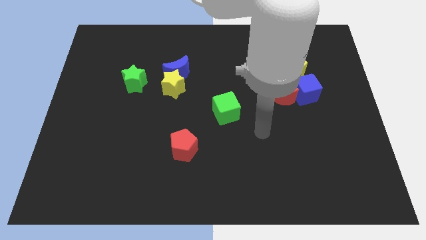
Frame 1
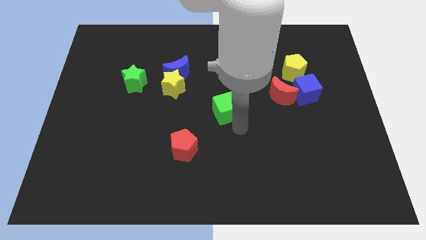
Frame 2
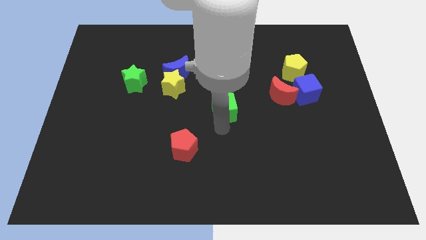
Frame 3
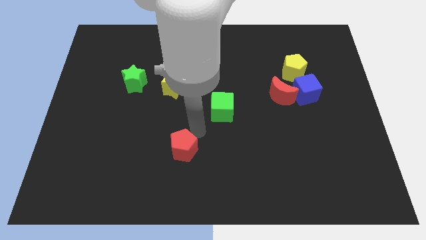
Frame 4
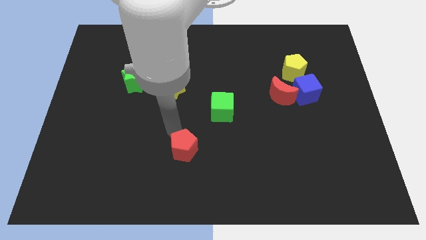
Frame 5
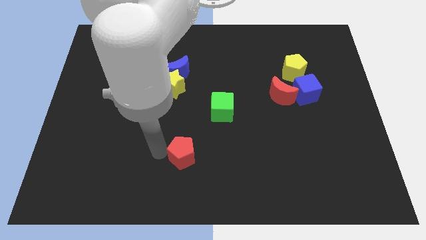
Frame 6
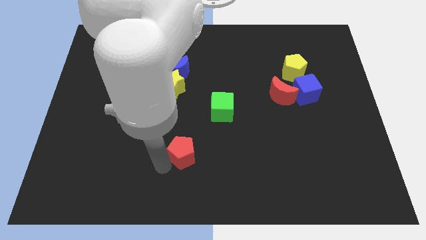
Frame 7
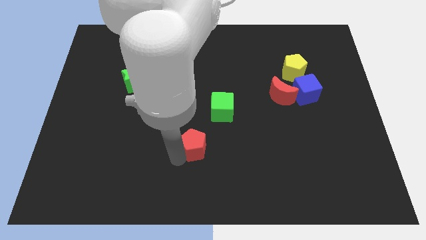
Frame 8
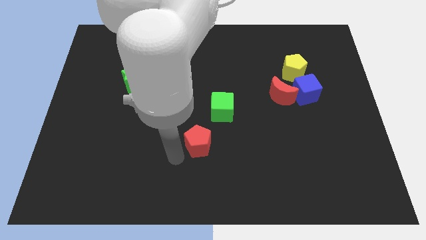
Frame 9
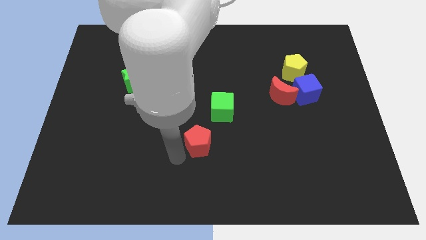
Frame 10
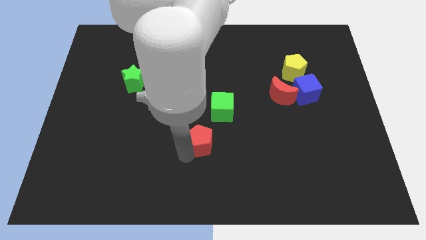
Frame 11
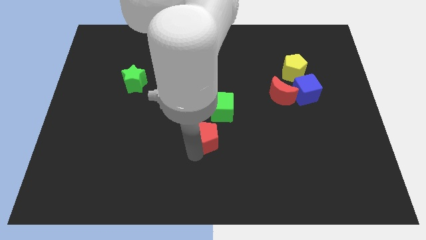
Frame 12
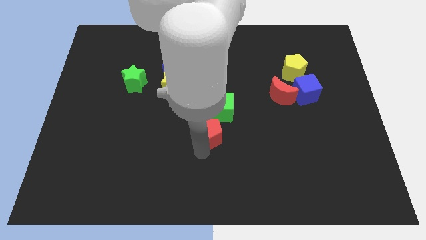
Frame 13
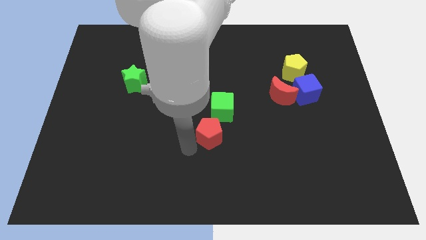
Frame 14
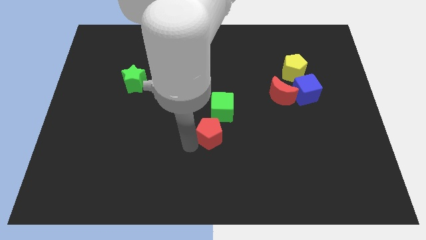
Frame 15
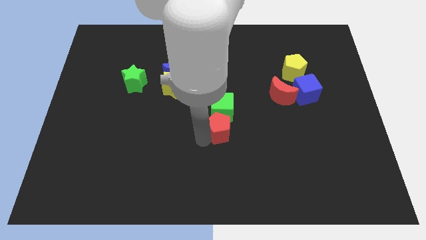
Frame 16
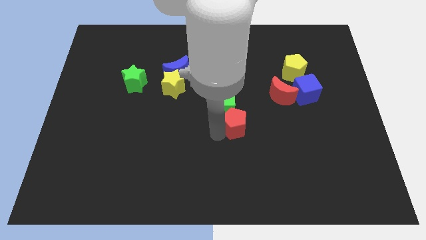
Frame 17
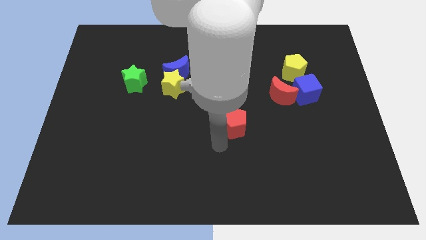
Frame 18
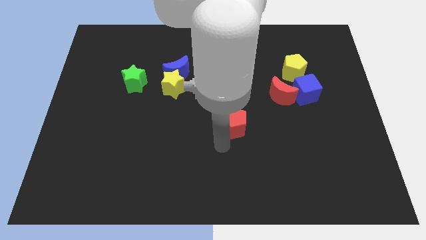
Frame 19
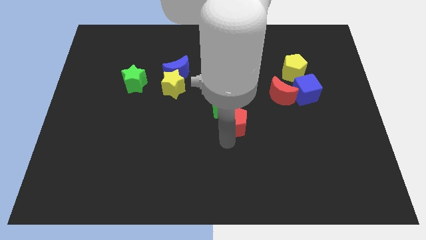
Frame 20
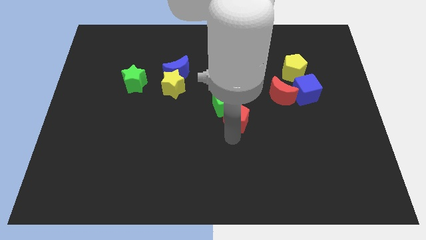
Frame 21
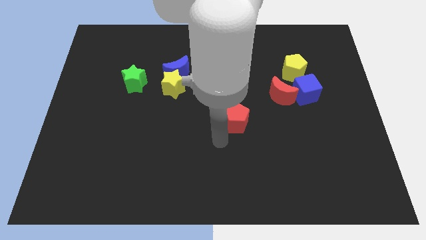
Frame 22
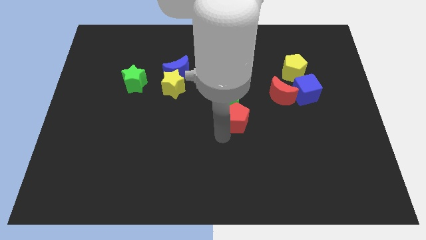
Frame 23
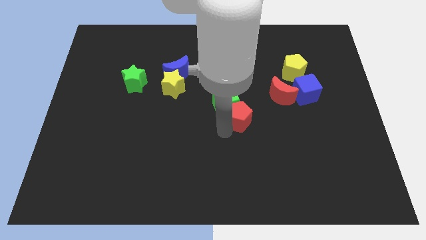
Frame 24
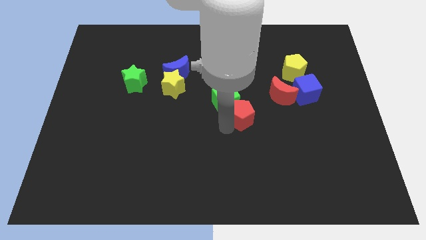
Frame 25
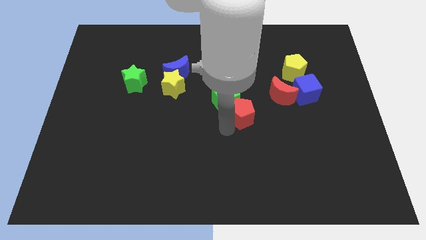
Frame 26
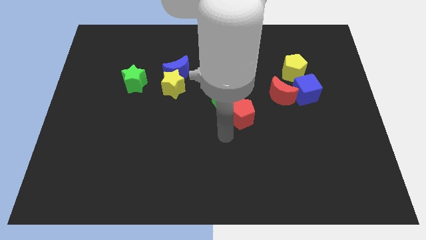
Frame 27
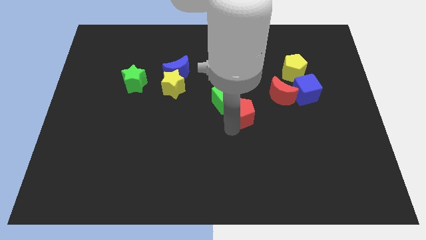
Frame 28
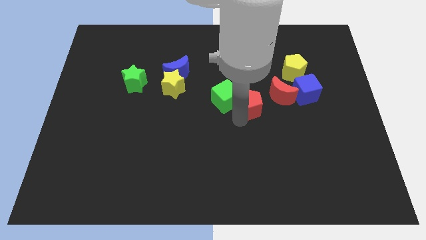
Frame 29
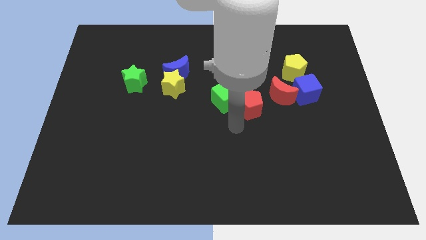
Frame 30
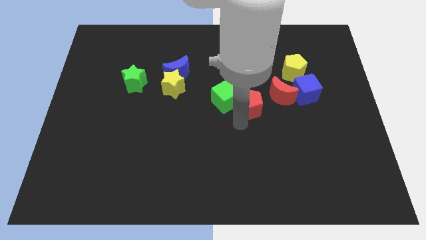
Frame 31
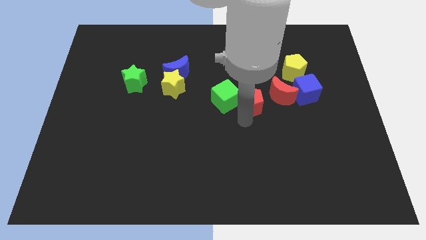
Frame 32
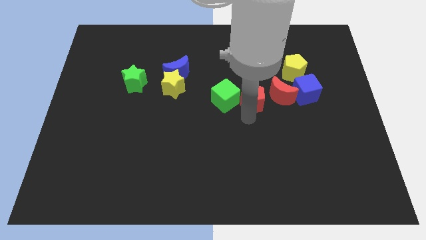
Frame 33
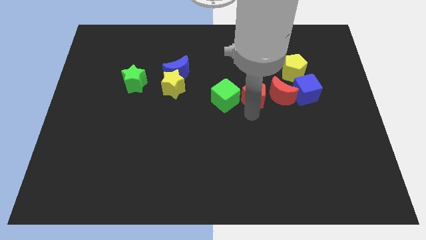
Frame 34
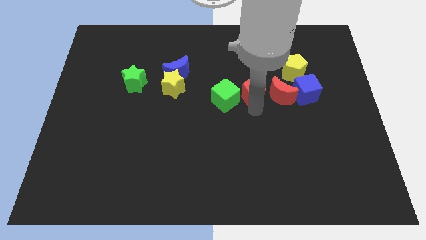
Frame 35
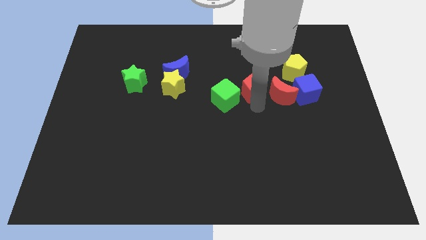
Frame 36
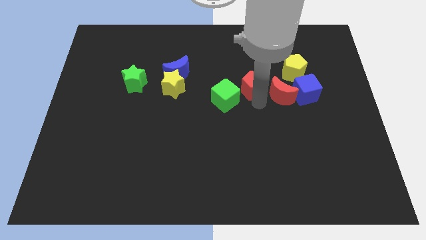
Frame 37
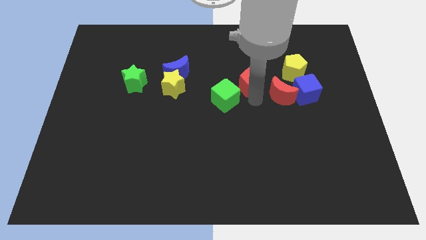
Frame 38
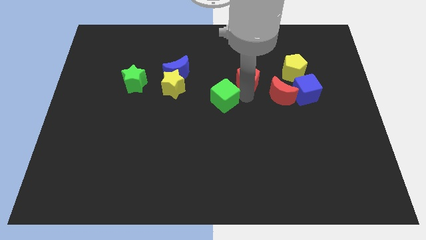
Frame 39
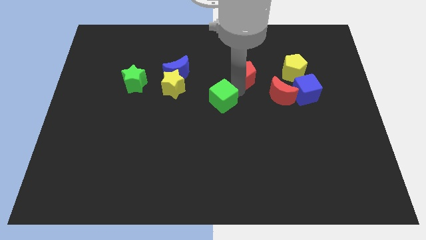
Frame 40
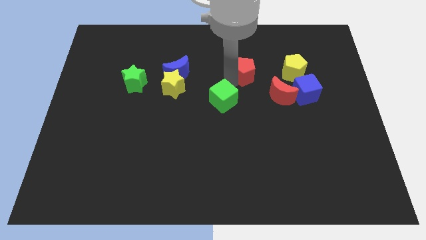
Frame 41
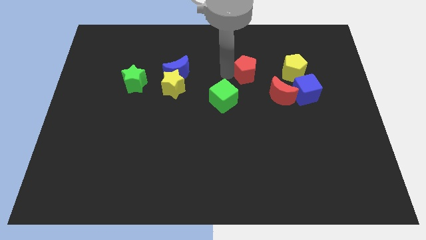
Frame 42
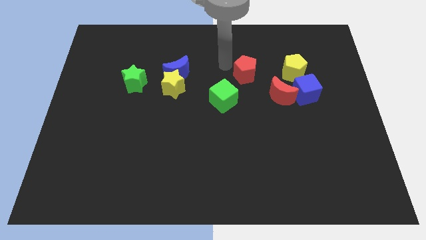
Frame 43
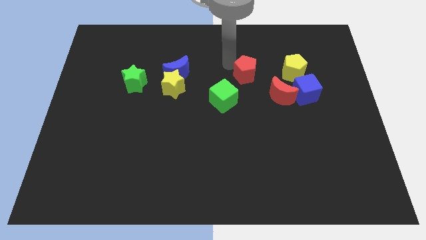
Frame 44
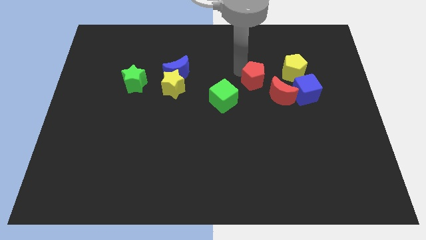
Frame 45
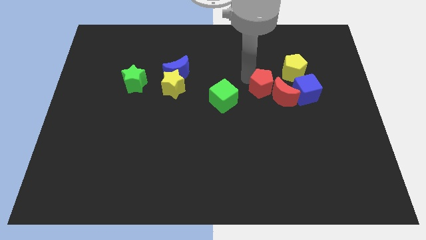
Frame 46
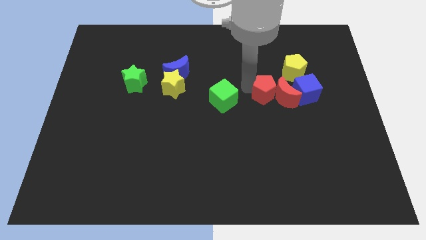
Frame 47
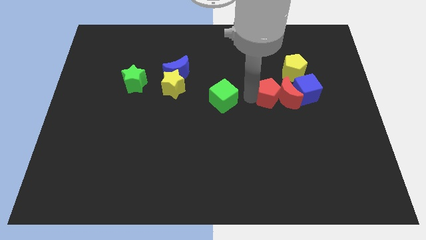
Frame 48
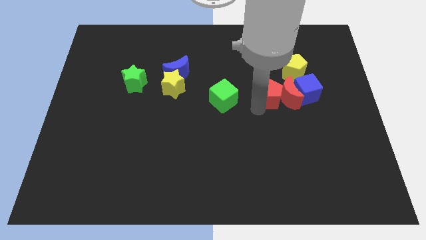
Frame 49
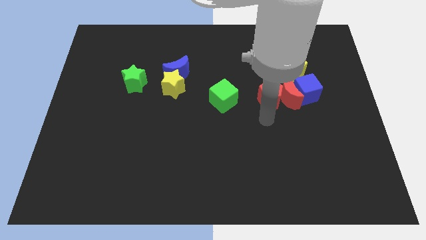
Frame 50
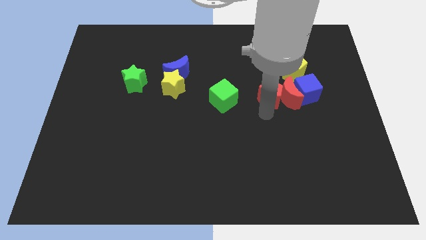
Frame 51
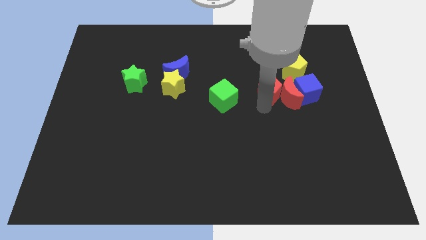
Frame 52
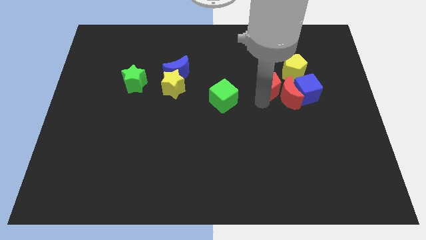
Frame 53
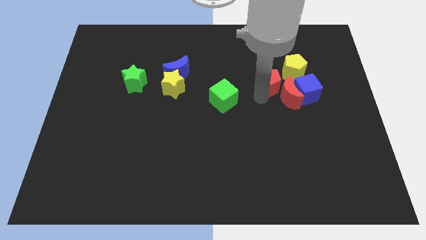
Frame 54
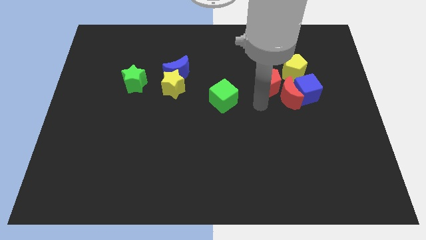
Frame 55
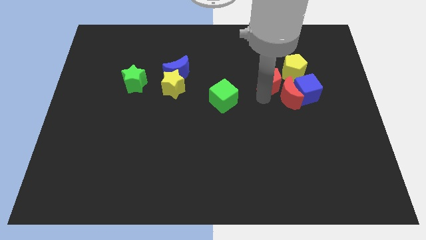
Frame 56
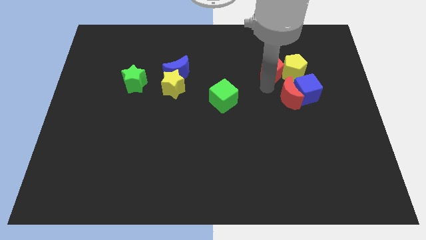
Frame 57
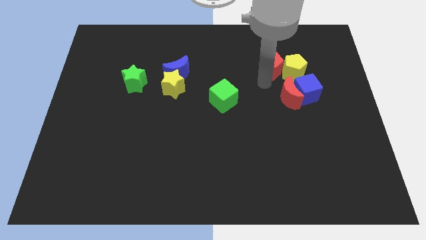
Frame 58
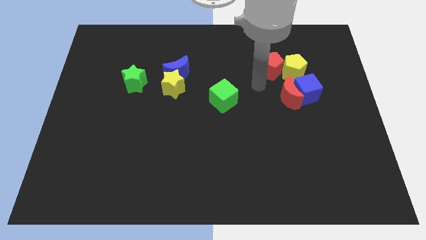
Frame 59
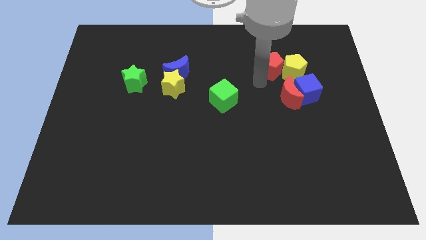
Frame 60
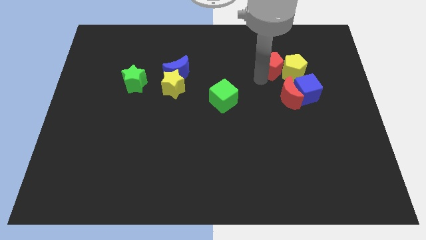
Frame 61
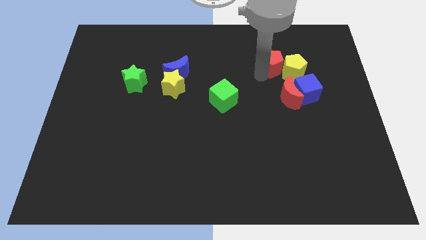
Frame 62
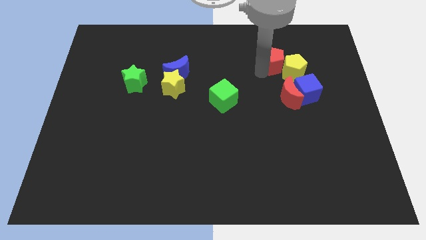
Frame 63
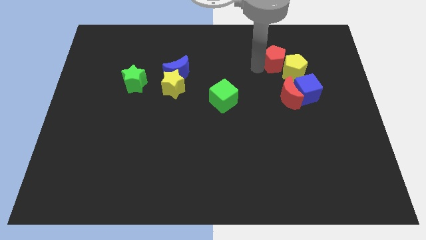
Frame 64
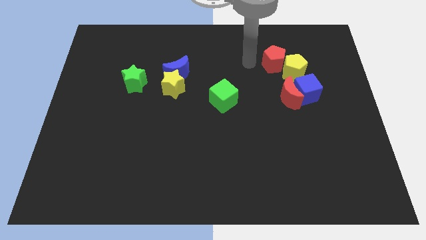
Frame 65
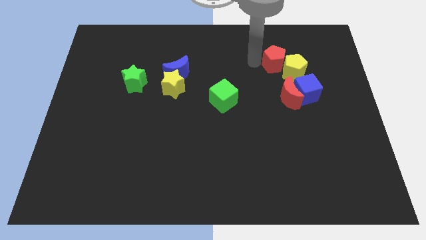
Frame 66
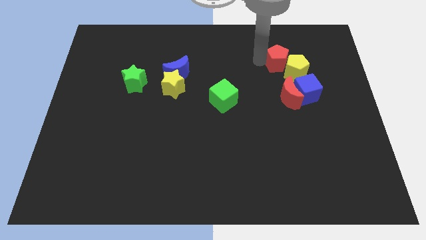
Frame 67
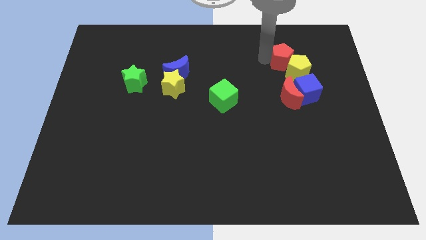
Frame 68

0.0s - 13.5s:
put the red pentagon above the blue cube
